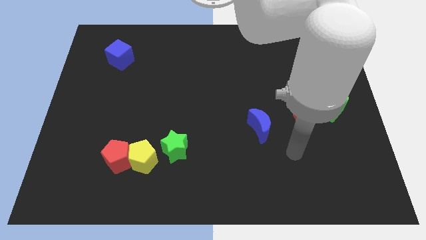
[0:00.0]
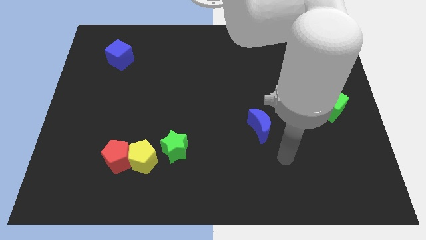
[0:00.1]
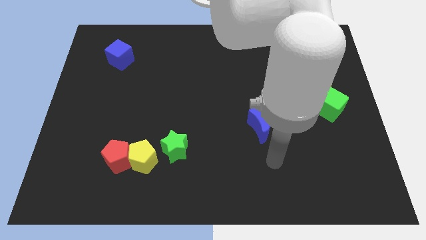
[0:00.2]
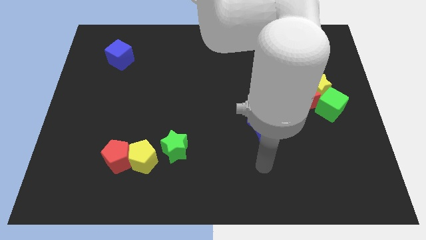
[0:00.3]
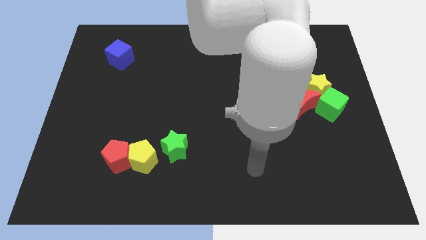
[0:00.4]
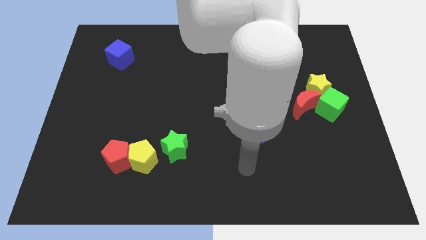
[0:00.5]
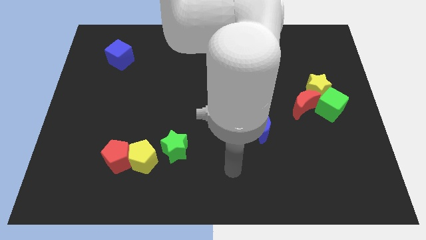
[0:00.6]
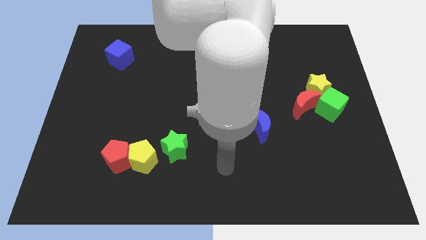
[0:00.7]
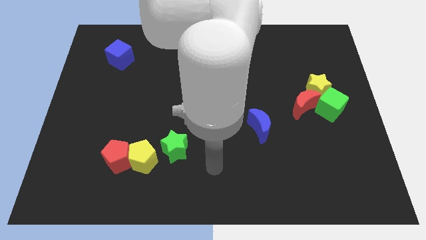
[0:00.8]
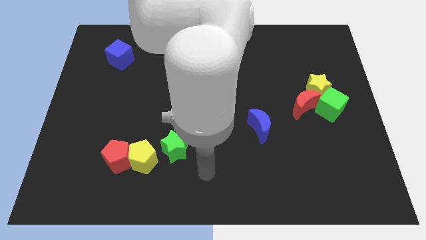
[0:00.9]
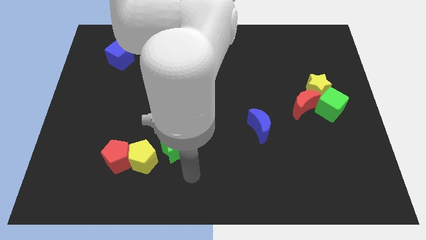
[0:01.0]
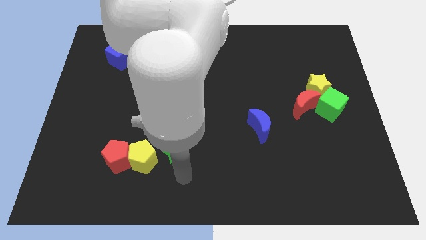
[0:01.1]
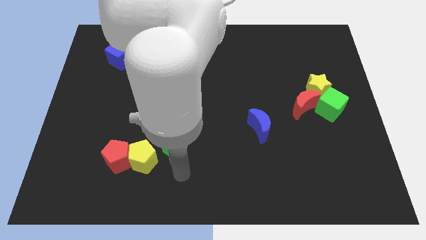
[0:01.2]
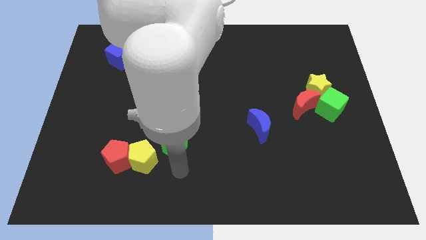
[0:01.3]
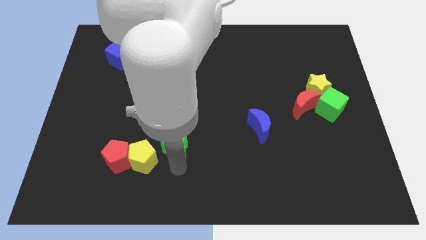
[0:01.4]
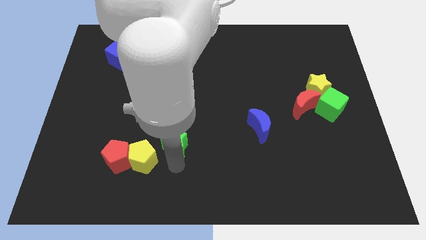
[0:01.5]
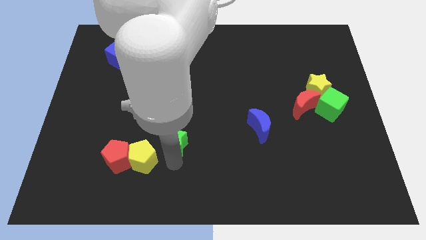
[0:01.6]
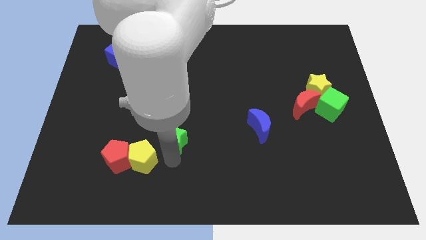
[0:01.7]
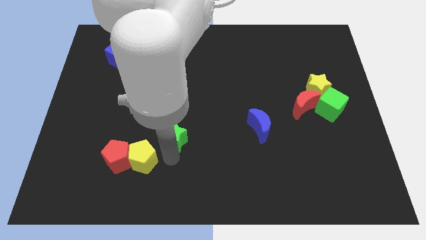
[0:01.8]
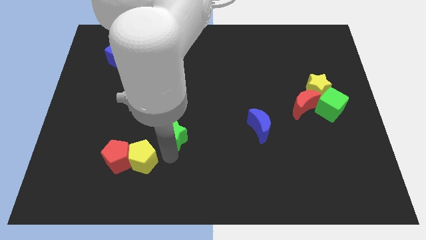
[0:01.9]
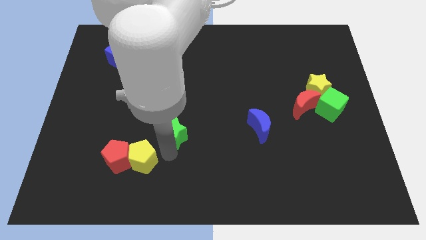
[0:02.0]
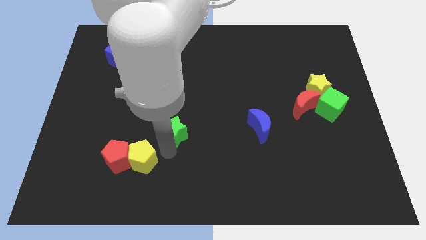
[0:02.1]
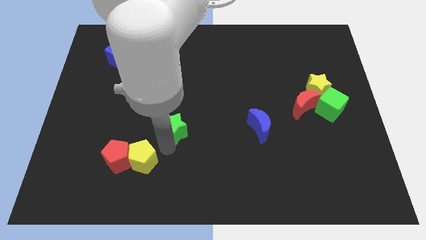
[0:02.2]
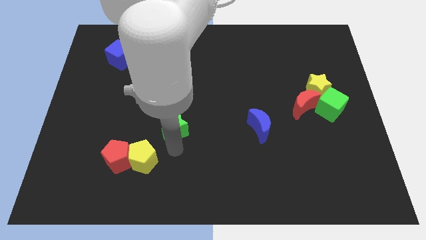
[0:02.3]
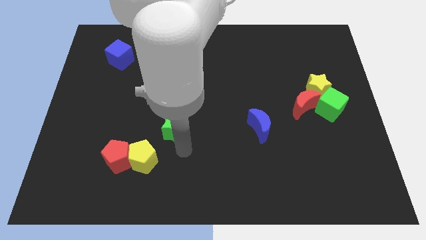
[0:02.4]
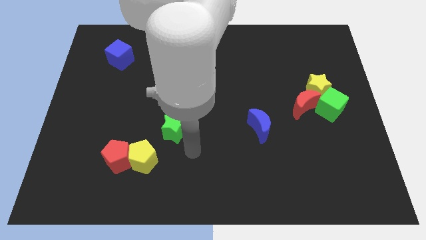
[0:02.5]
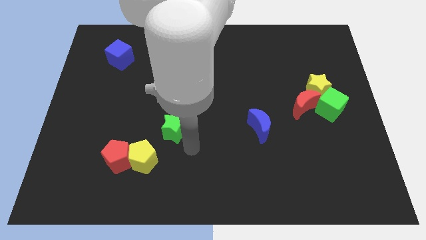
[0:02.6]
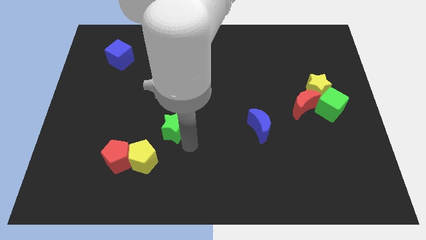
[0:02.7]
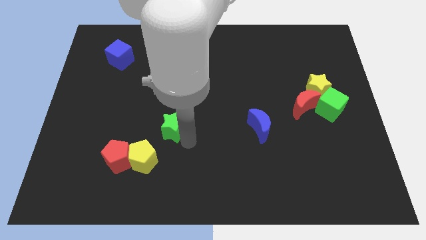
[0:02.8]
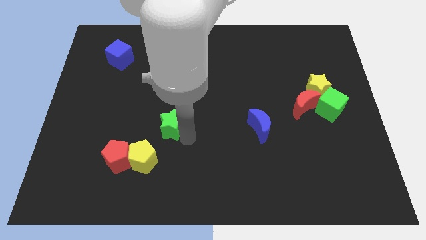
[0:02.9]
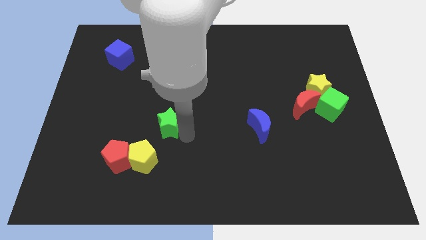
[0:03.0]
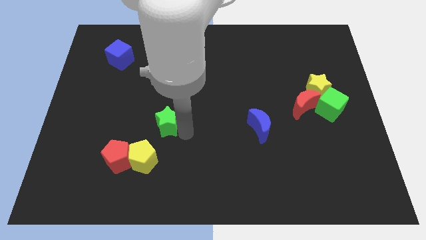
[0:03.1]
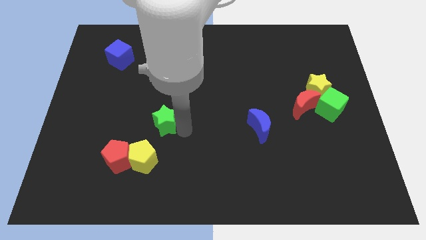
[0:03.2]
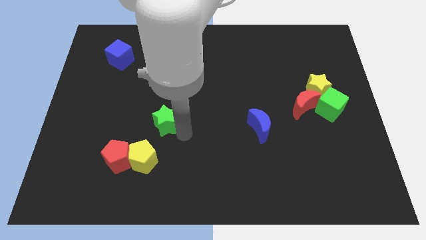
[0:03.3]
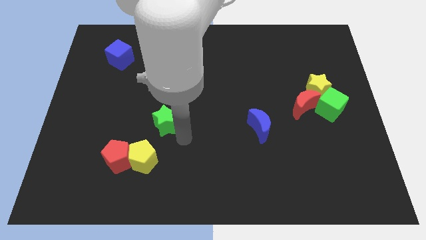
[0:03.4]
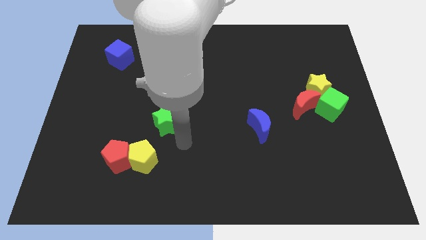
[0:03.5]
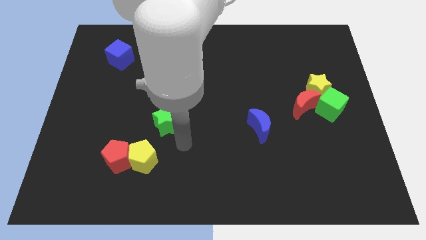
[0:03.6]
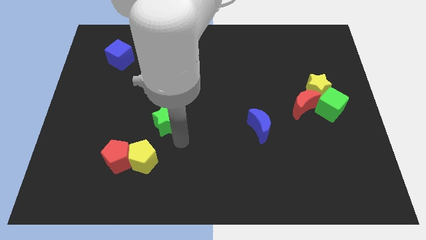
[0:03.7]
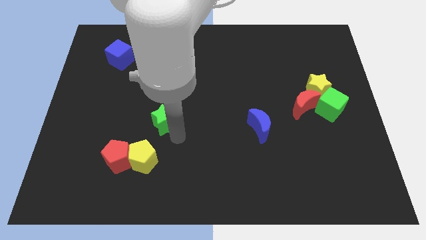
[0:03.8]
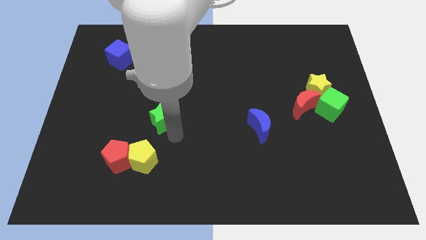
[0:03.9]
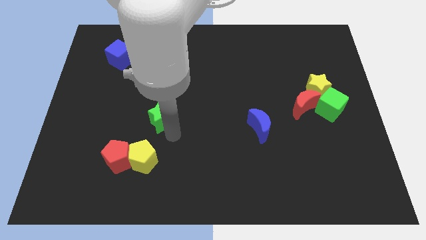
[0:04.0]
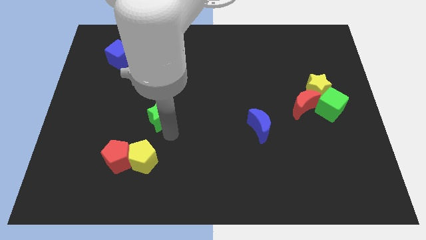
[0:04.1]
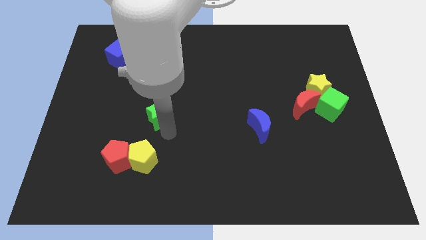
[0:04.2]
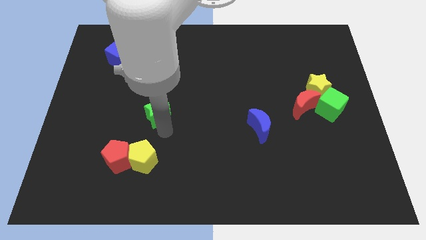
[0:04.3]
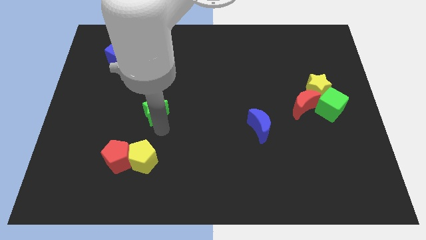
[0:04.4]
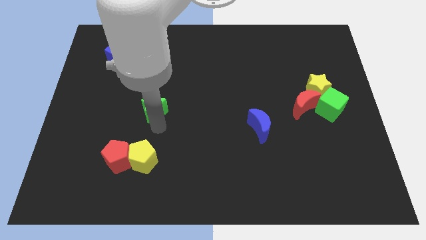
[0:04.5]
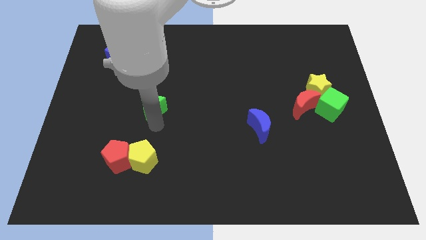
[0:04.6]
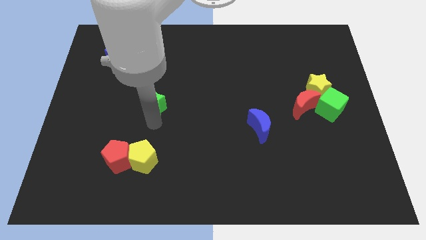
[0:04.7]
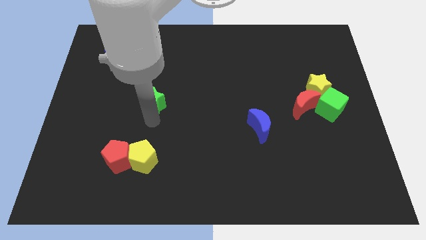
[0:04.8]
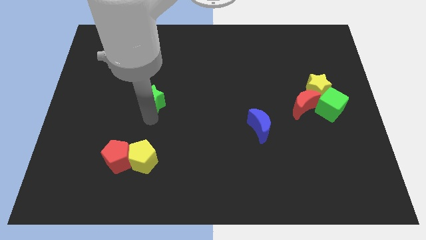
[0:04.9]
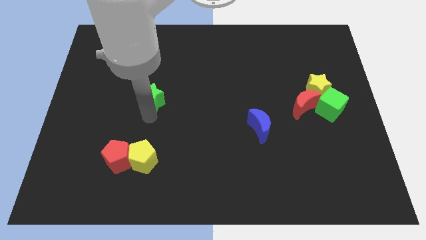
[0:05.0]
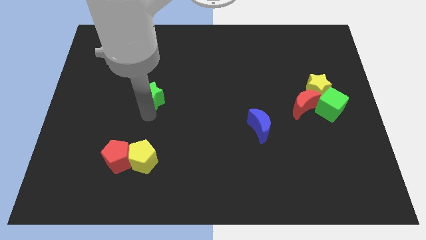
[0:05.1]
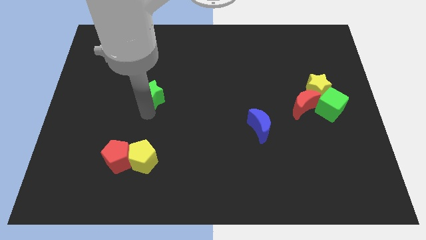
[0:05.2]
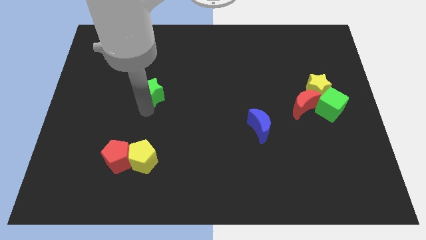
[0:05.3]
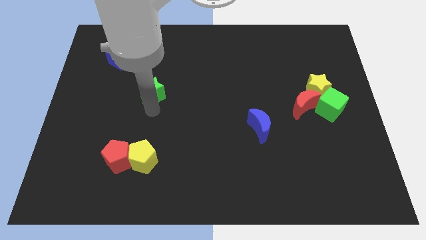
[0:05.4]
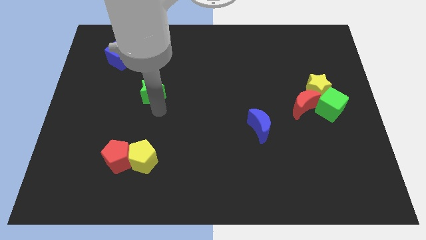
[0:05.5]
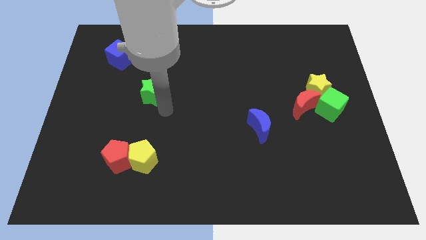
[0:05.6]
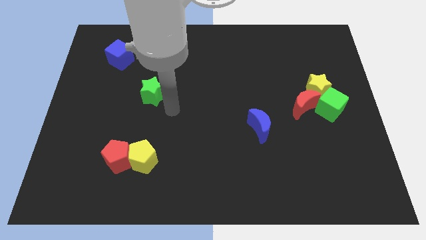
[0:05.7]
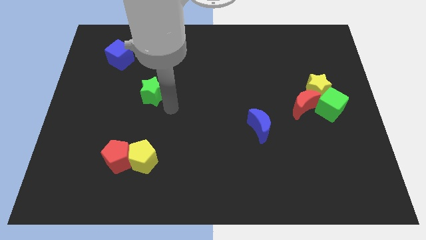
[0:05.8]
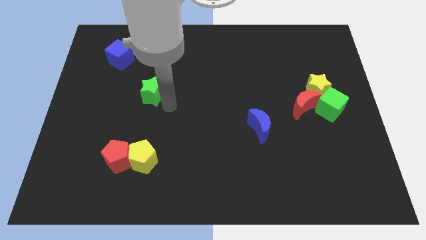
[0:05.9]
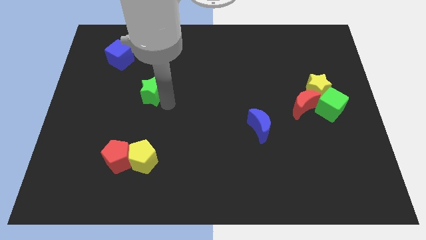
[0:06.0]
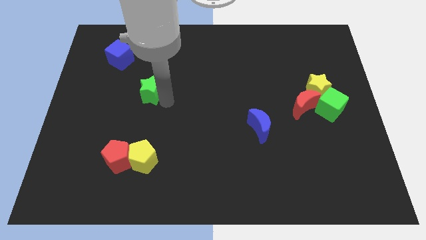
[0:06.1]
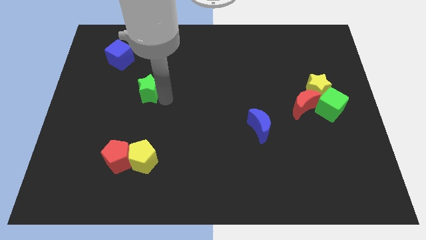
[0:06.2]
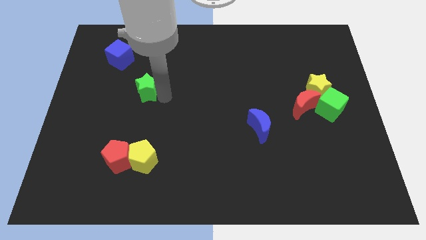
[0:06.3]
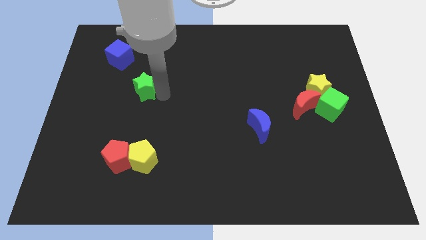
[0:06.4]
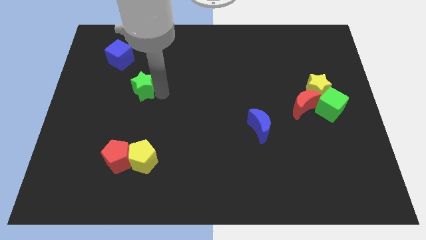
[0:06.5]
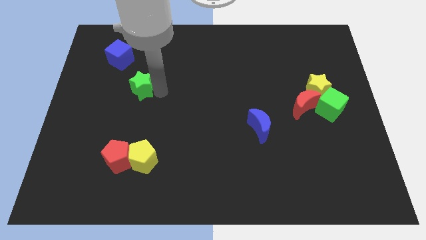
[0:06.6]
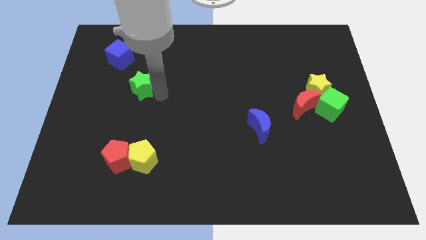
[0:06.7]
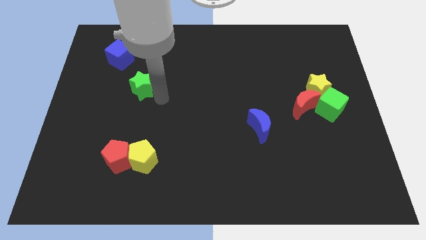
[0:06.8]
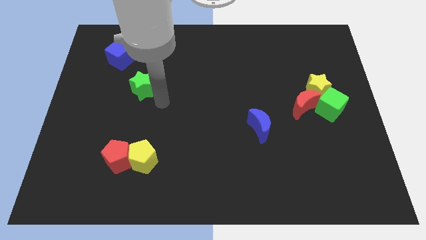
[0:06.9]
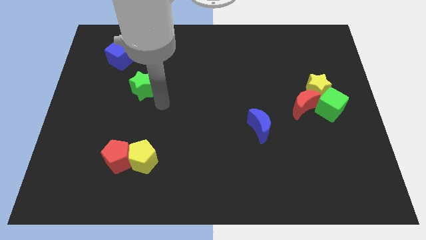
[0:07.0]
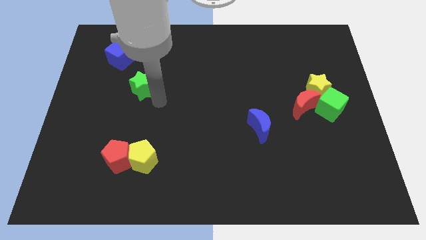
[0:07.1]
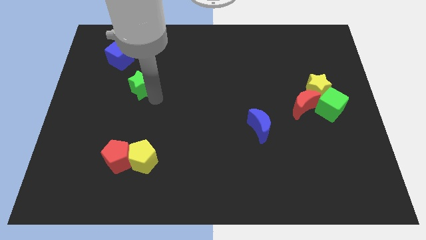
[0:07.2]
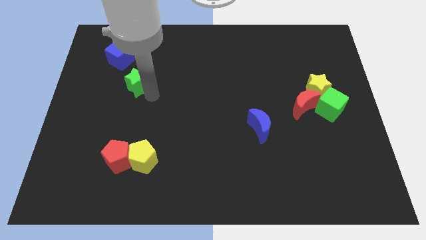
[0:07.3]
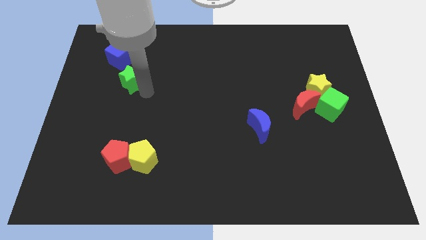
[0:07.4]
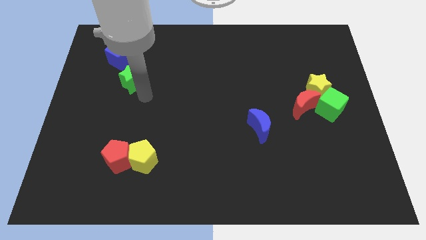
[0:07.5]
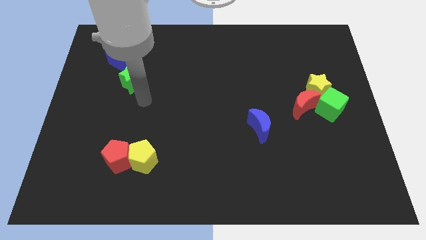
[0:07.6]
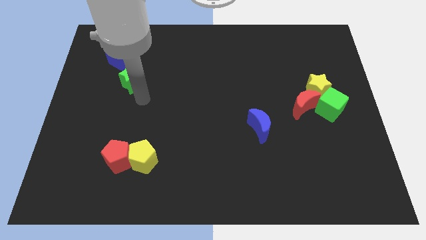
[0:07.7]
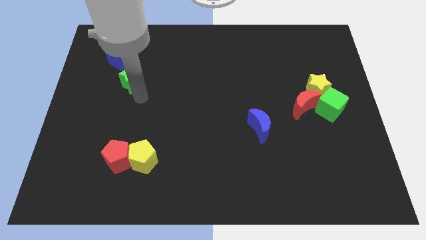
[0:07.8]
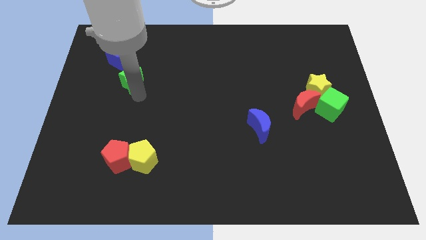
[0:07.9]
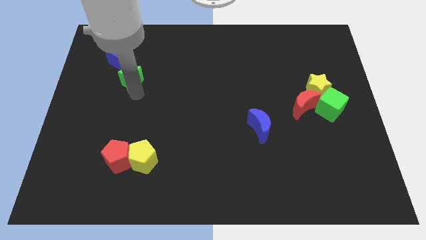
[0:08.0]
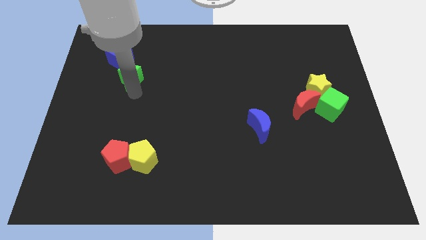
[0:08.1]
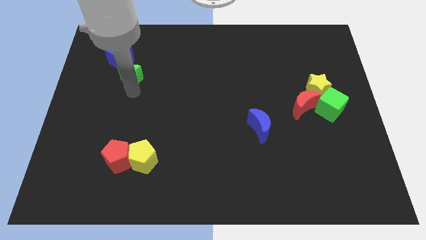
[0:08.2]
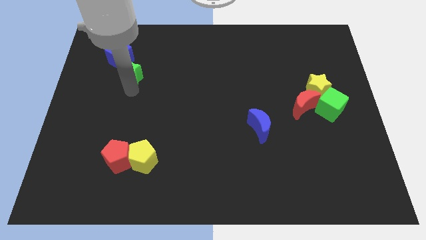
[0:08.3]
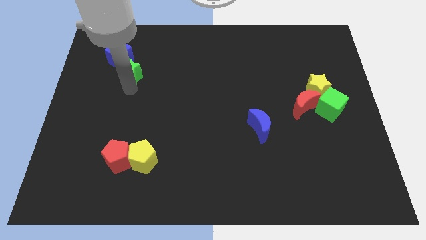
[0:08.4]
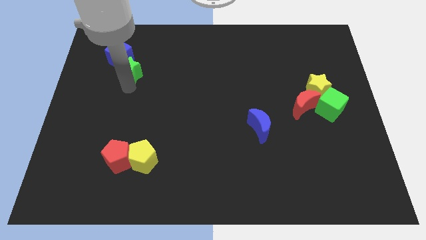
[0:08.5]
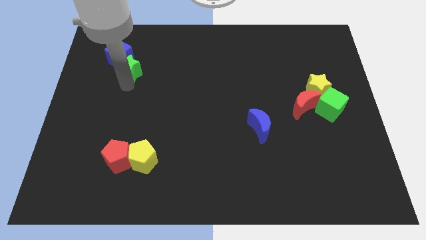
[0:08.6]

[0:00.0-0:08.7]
push the green star next to the blue cube
